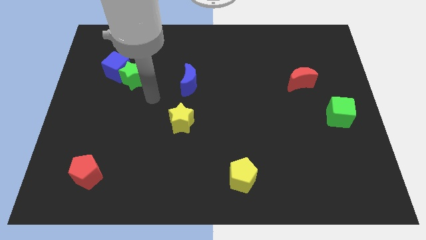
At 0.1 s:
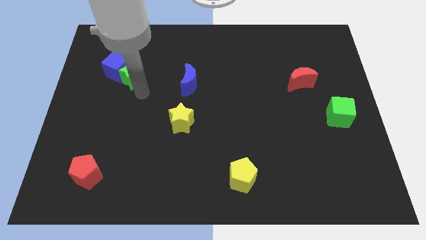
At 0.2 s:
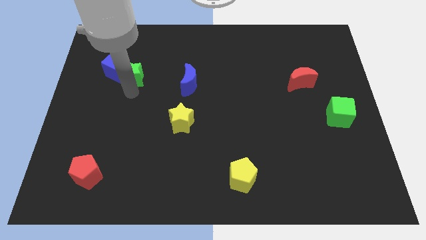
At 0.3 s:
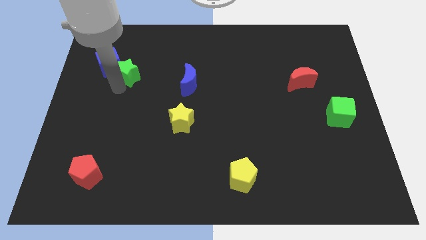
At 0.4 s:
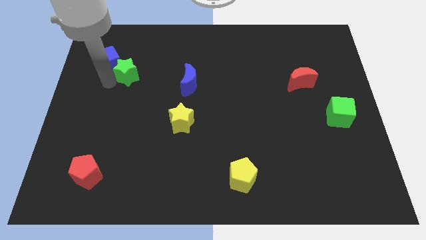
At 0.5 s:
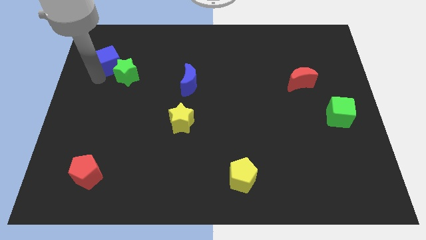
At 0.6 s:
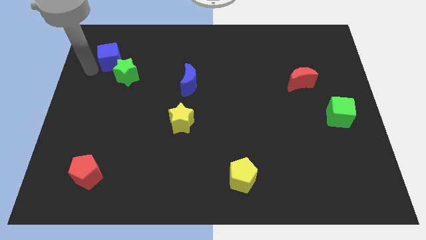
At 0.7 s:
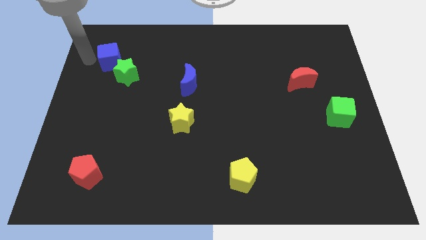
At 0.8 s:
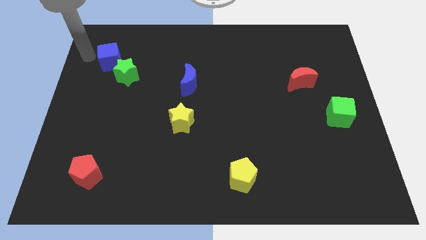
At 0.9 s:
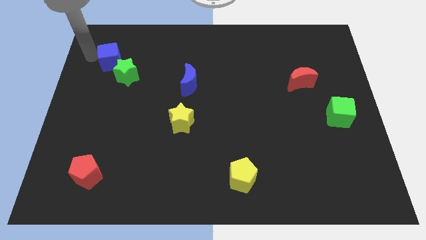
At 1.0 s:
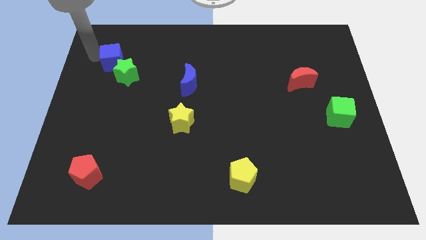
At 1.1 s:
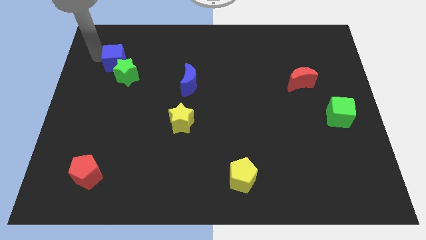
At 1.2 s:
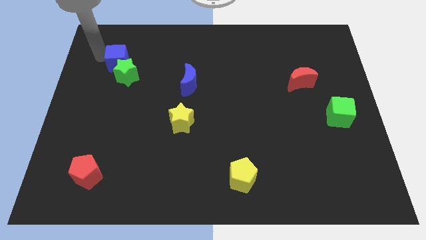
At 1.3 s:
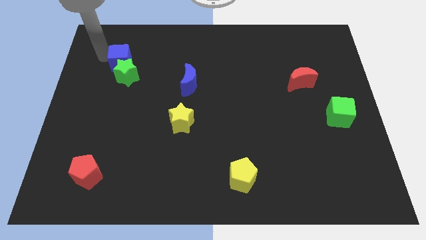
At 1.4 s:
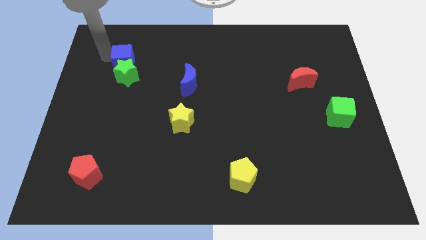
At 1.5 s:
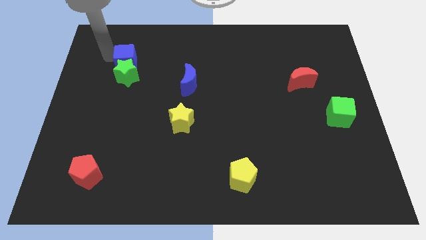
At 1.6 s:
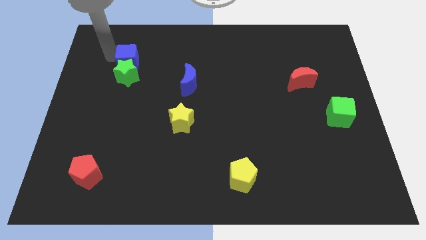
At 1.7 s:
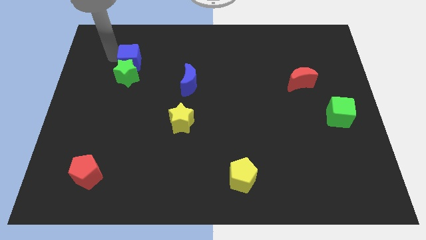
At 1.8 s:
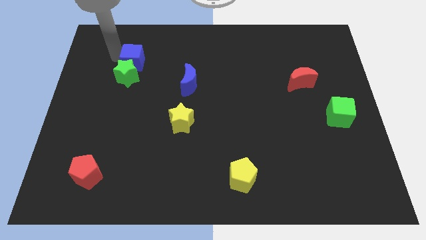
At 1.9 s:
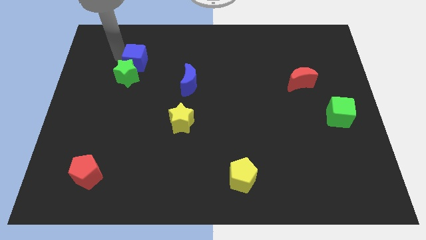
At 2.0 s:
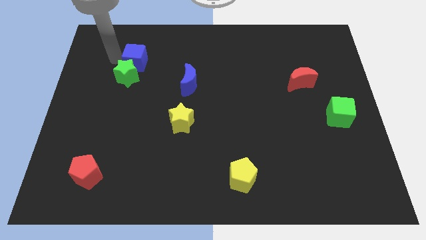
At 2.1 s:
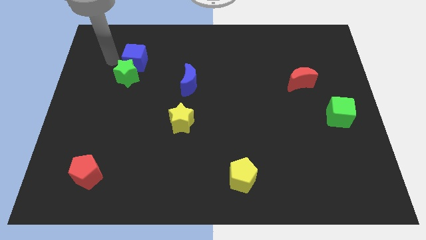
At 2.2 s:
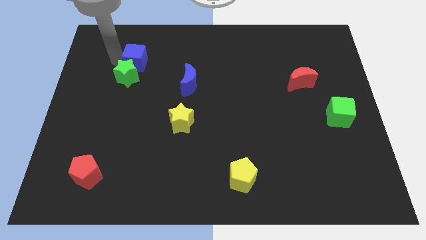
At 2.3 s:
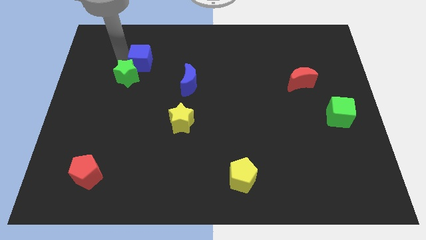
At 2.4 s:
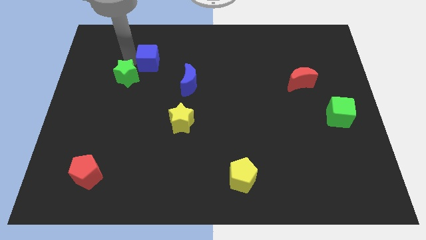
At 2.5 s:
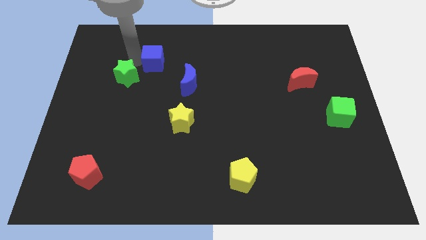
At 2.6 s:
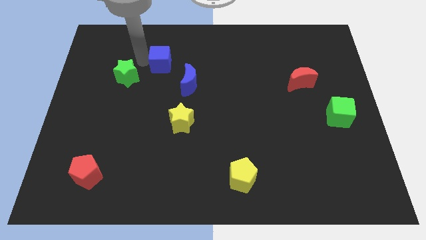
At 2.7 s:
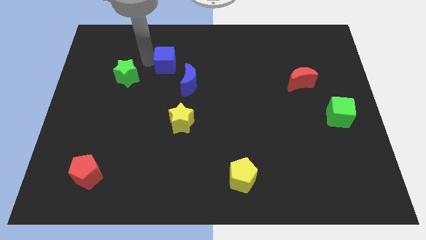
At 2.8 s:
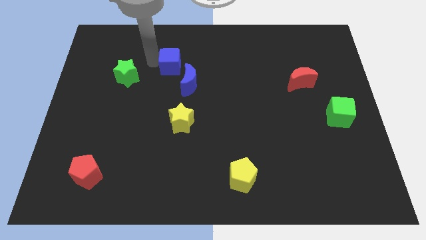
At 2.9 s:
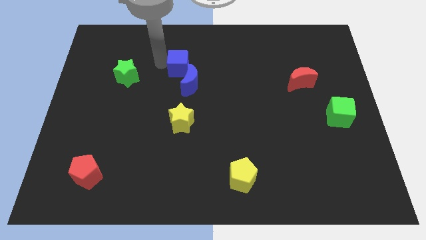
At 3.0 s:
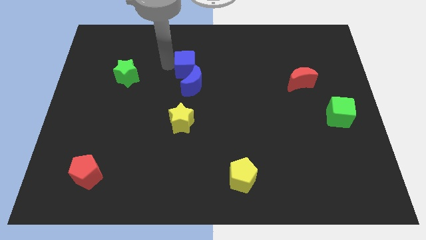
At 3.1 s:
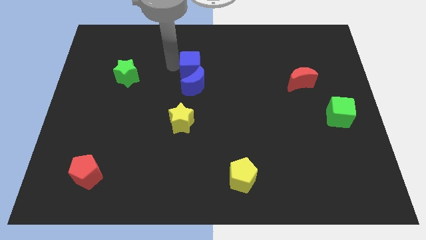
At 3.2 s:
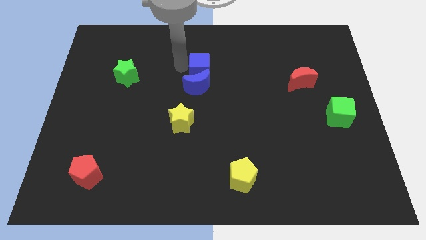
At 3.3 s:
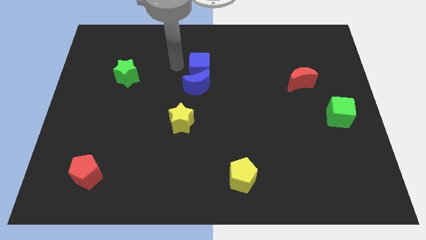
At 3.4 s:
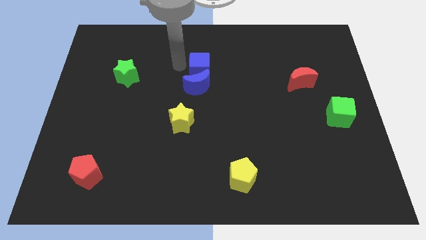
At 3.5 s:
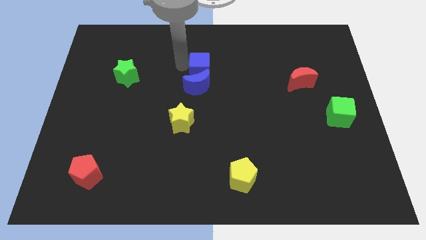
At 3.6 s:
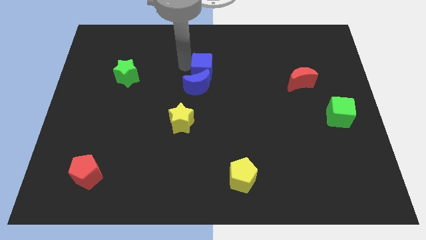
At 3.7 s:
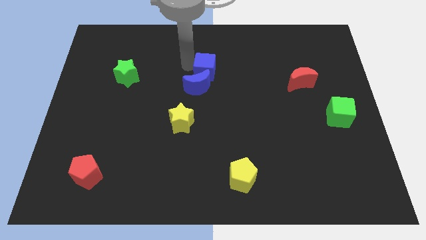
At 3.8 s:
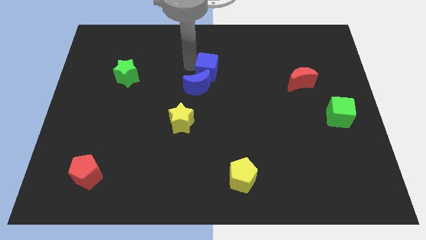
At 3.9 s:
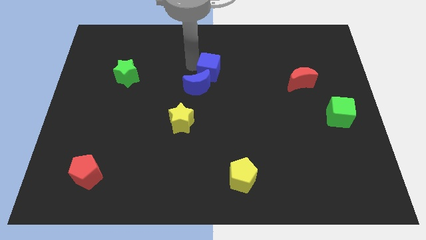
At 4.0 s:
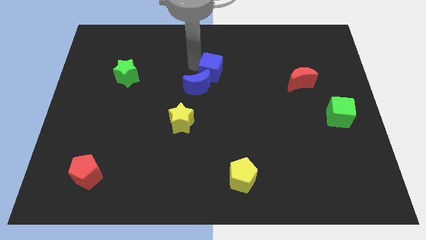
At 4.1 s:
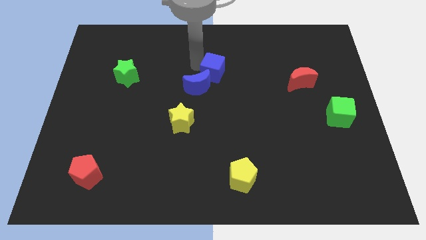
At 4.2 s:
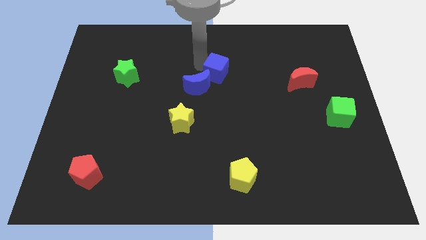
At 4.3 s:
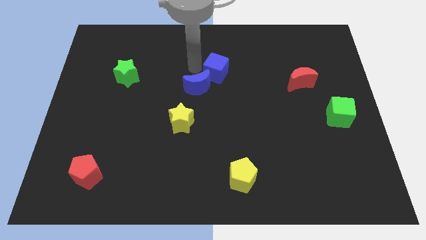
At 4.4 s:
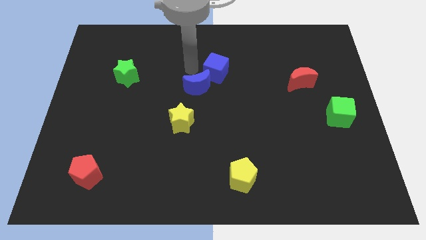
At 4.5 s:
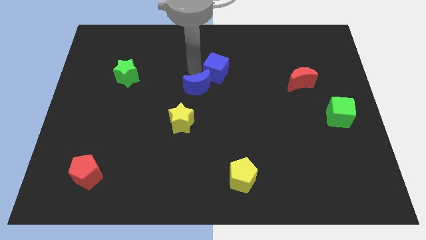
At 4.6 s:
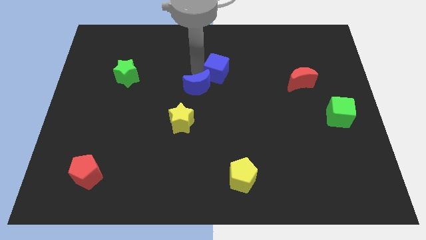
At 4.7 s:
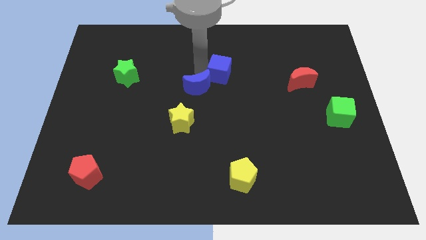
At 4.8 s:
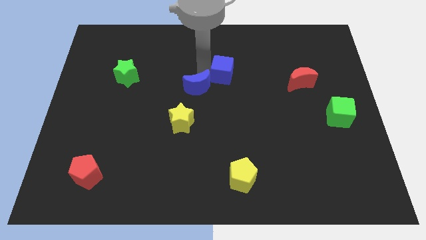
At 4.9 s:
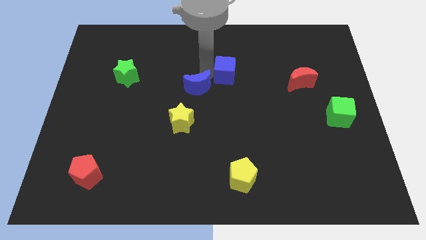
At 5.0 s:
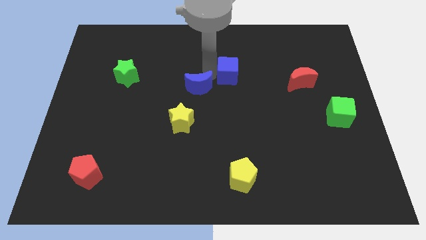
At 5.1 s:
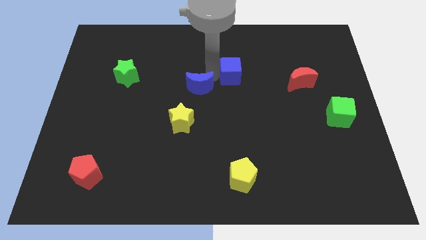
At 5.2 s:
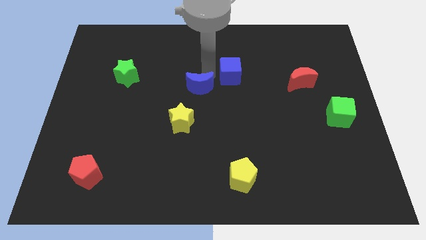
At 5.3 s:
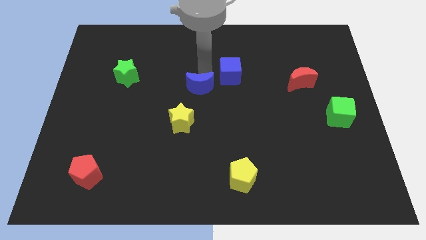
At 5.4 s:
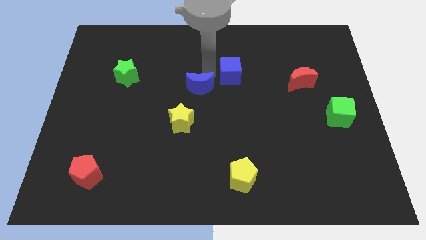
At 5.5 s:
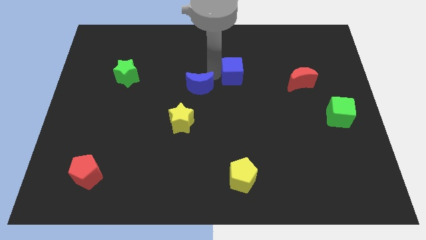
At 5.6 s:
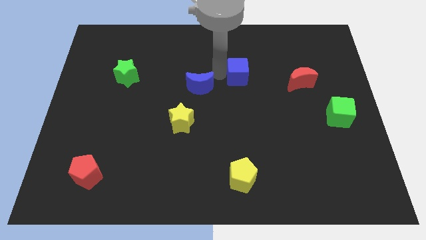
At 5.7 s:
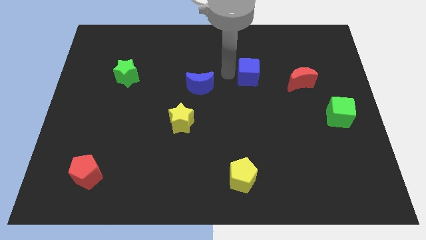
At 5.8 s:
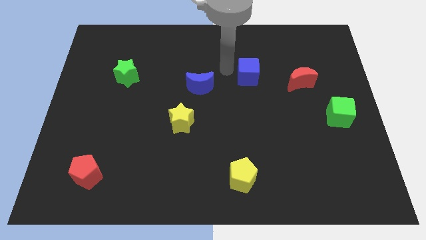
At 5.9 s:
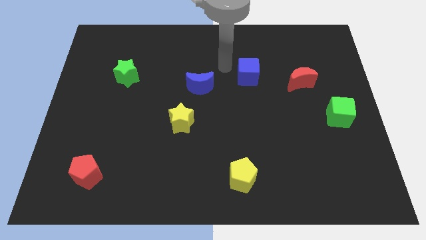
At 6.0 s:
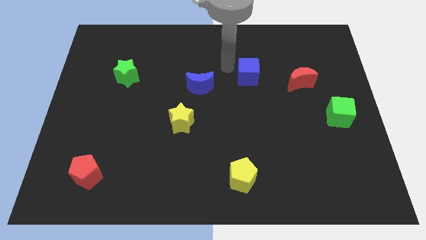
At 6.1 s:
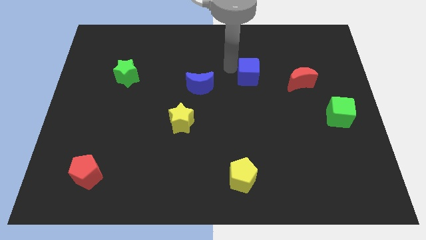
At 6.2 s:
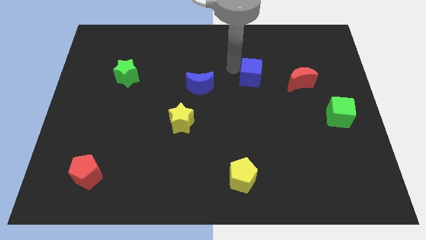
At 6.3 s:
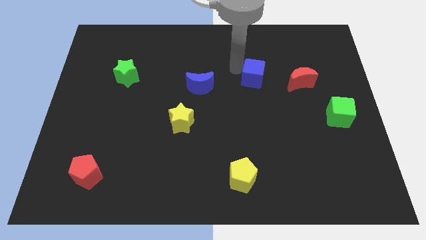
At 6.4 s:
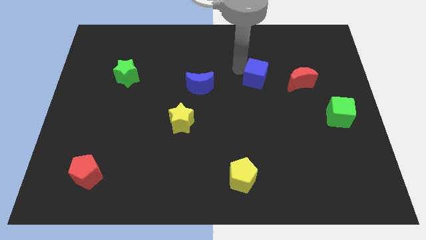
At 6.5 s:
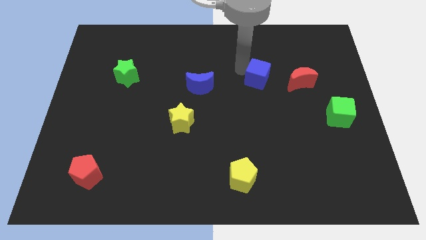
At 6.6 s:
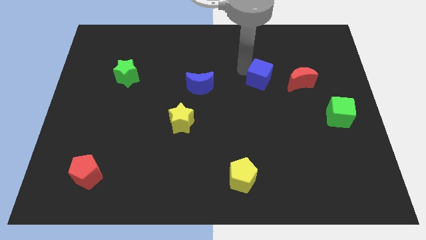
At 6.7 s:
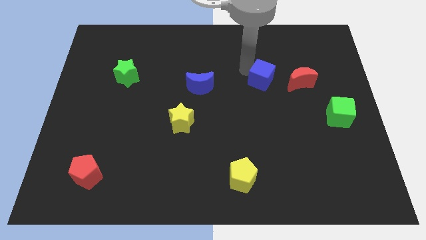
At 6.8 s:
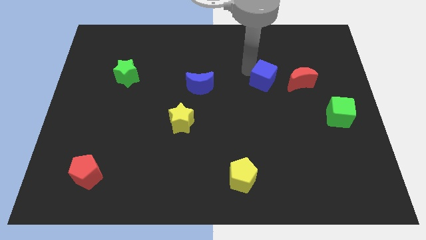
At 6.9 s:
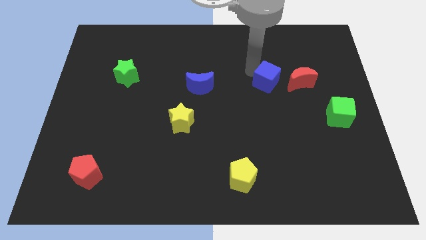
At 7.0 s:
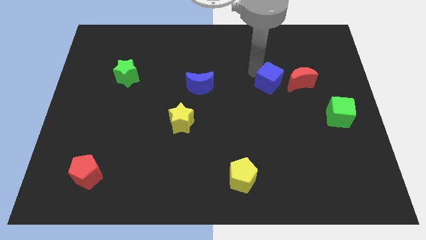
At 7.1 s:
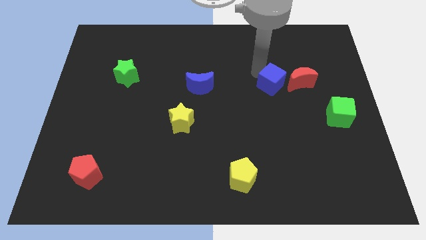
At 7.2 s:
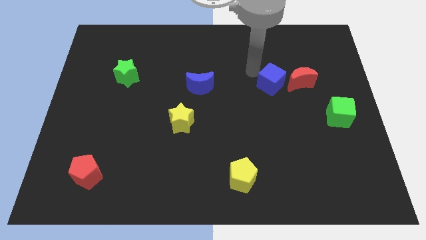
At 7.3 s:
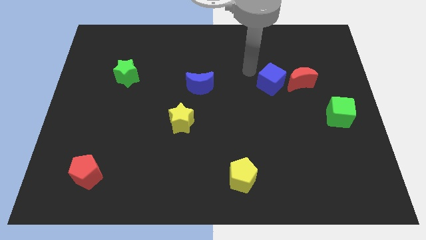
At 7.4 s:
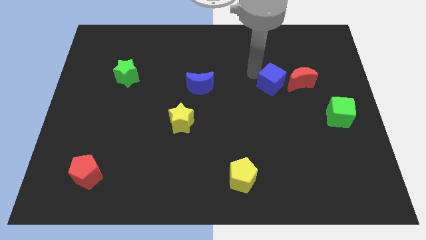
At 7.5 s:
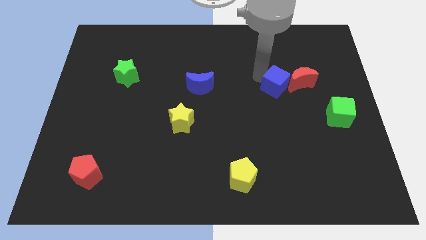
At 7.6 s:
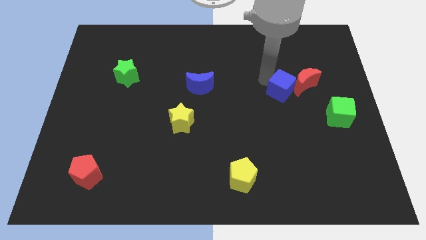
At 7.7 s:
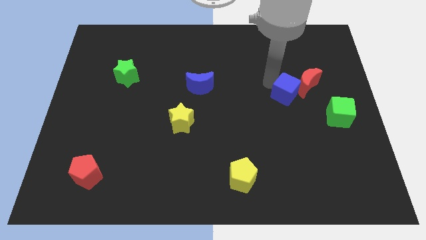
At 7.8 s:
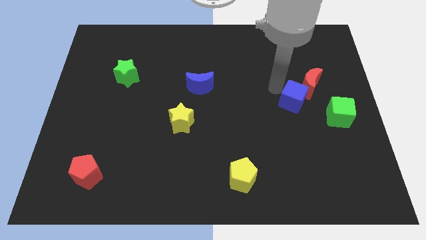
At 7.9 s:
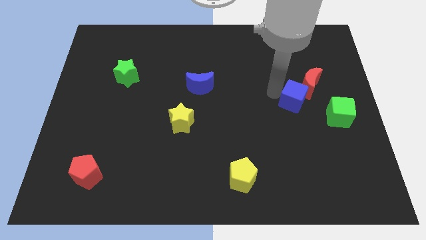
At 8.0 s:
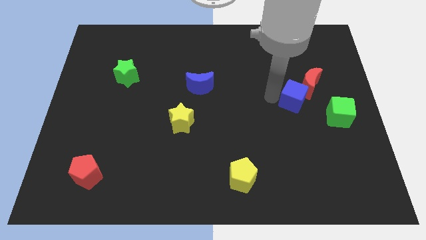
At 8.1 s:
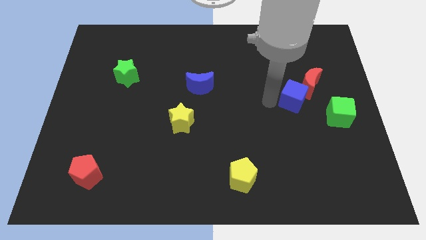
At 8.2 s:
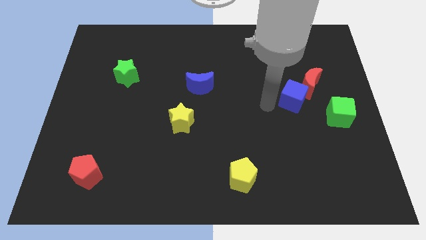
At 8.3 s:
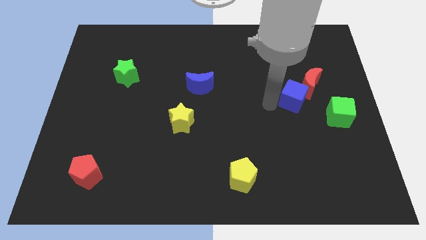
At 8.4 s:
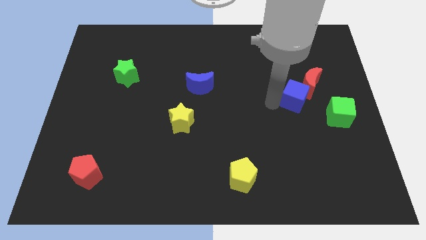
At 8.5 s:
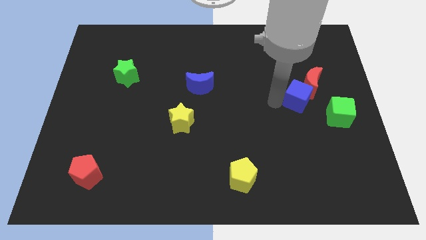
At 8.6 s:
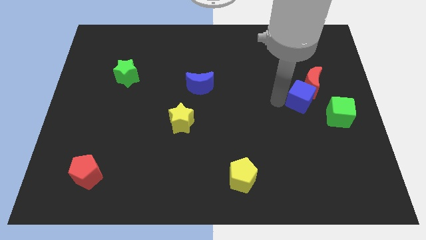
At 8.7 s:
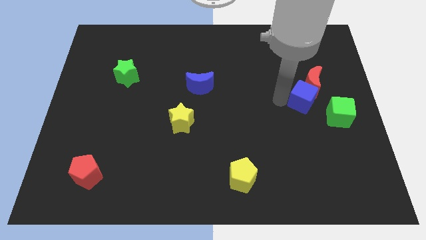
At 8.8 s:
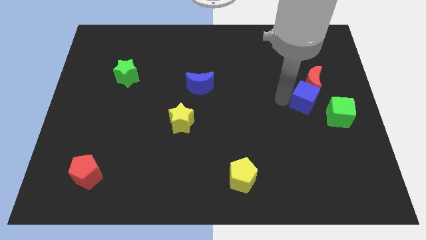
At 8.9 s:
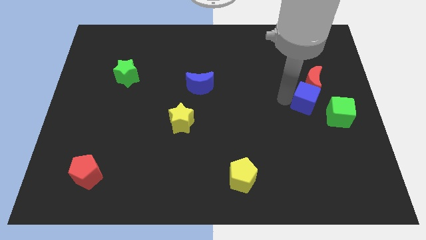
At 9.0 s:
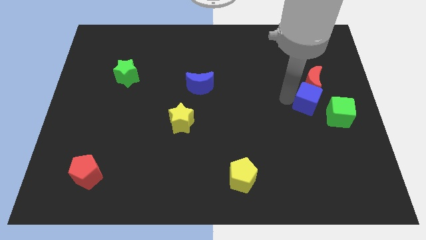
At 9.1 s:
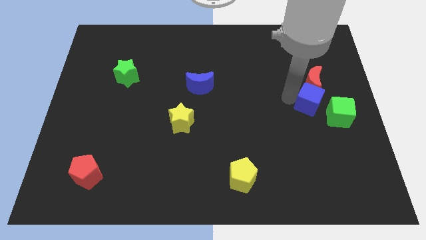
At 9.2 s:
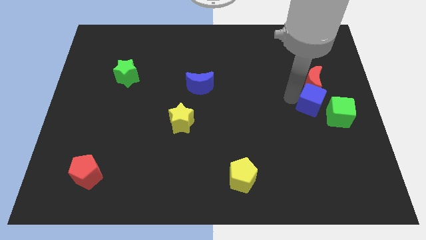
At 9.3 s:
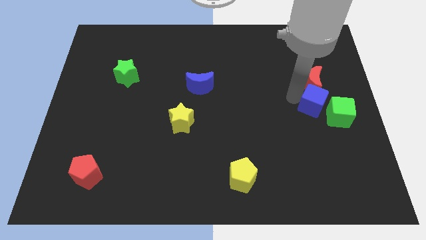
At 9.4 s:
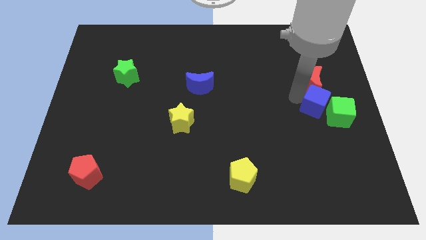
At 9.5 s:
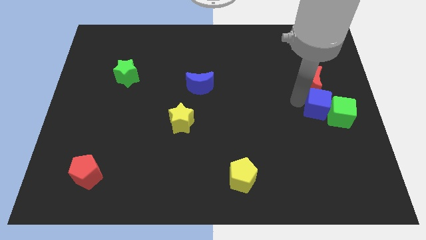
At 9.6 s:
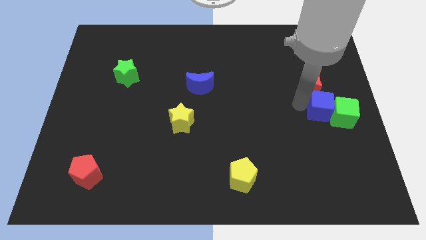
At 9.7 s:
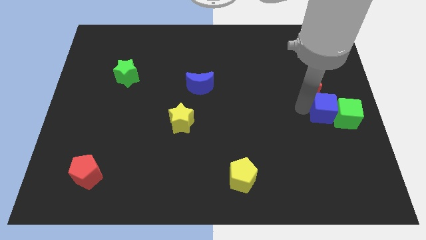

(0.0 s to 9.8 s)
move the blue cube to the center right
